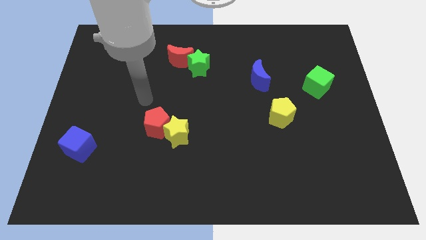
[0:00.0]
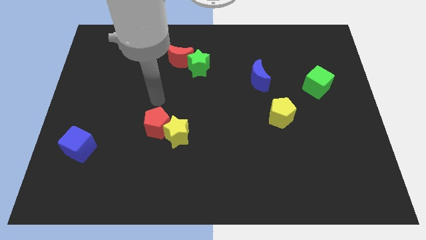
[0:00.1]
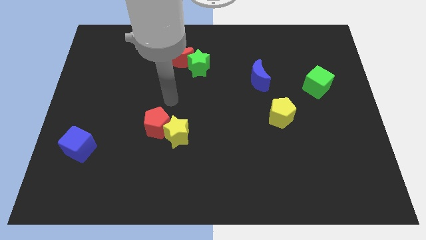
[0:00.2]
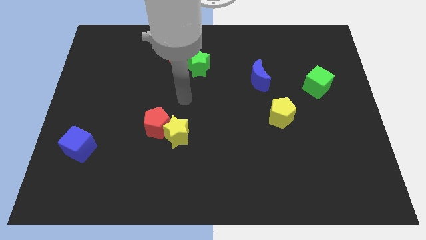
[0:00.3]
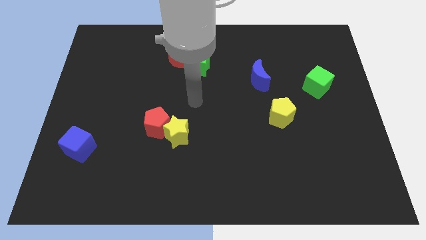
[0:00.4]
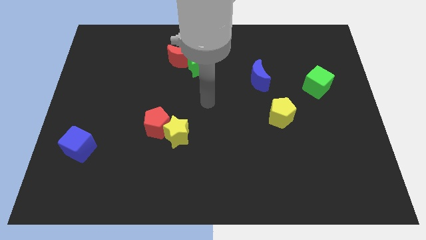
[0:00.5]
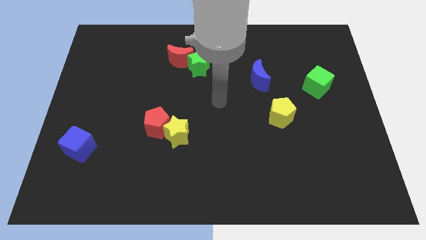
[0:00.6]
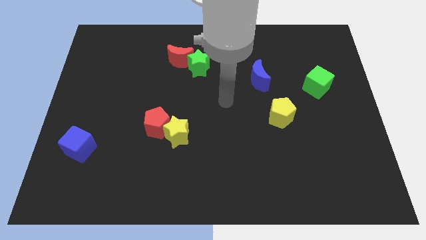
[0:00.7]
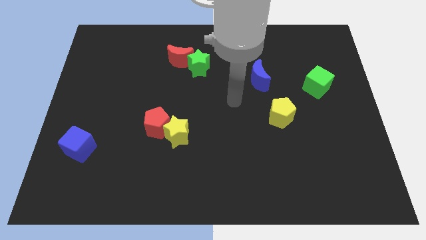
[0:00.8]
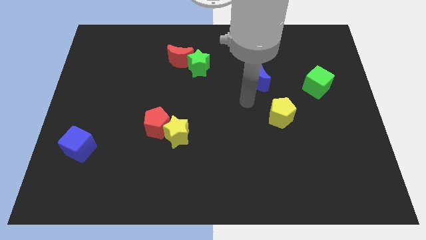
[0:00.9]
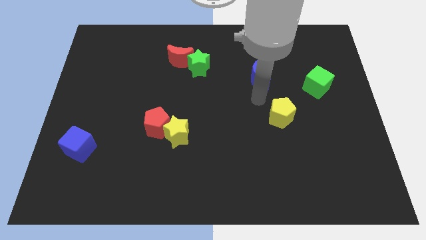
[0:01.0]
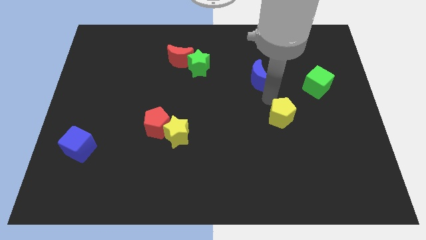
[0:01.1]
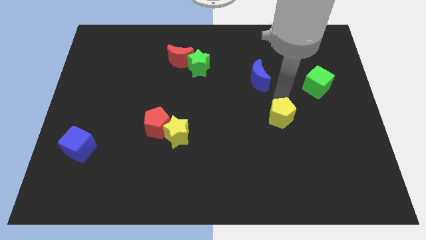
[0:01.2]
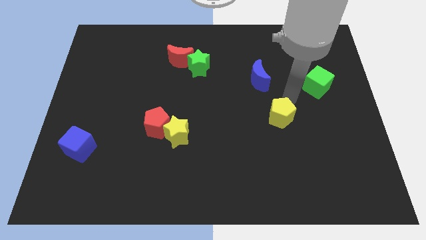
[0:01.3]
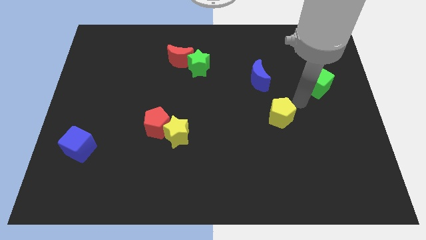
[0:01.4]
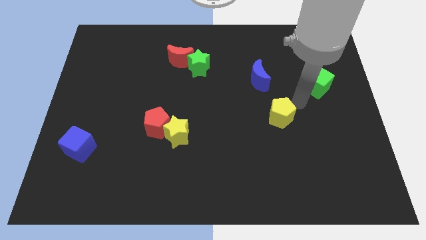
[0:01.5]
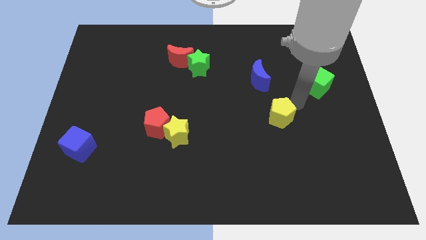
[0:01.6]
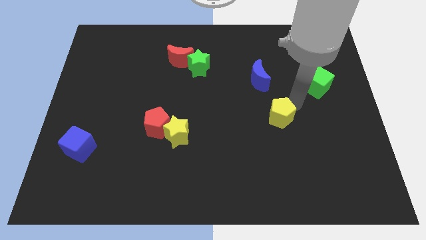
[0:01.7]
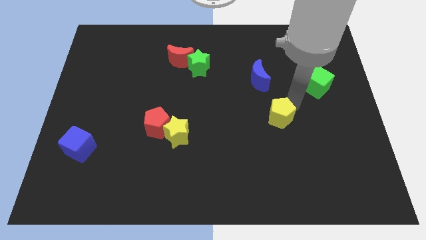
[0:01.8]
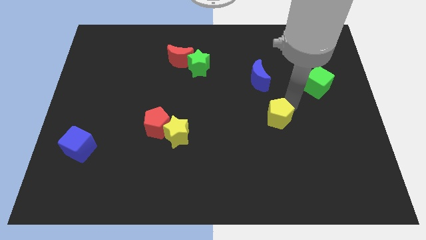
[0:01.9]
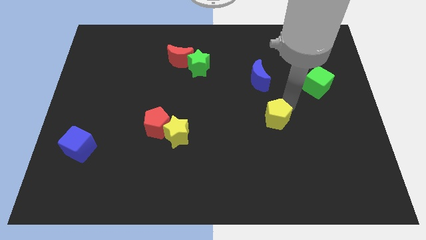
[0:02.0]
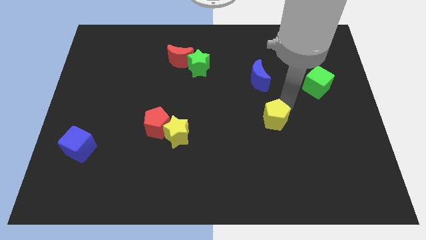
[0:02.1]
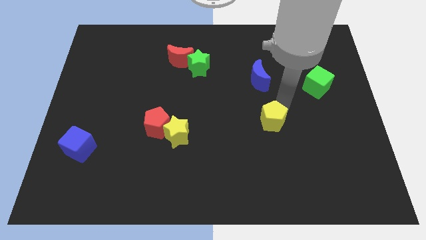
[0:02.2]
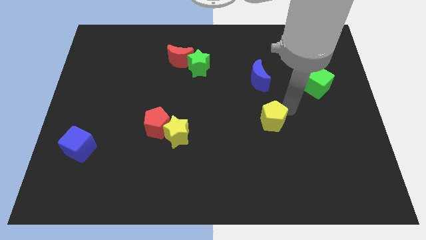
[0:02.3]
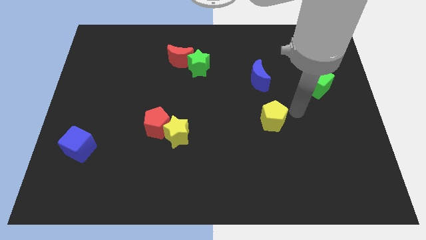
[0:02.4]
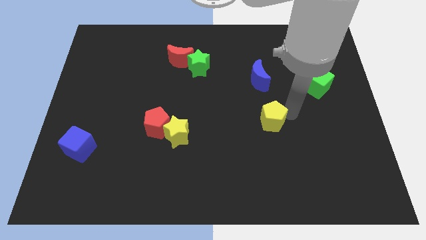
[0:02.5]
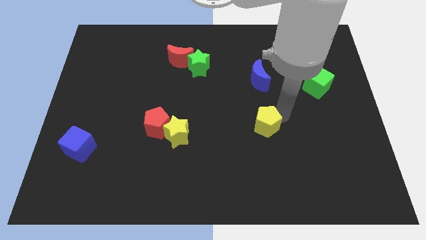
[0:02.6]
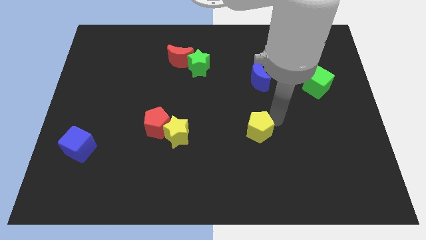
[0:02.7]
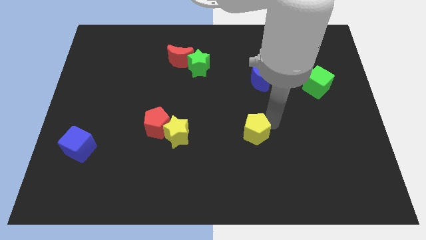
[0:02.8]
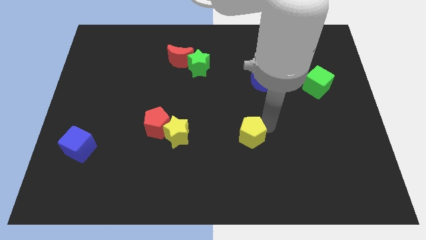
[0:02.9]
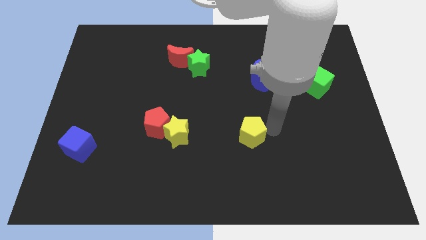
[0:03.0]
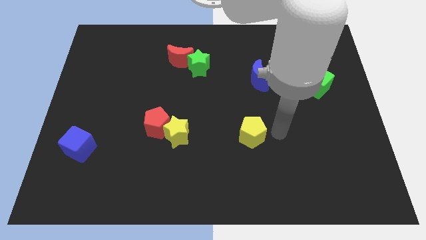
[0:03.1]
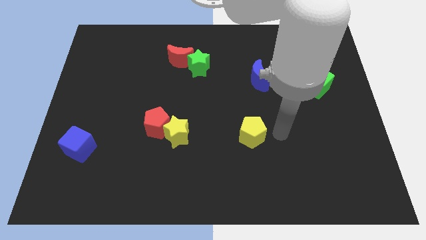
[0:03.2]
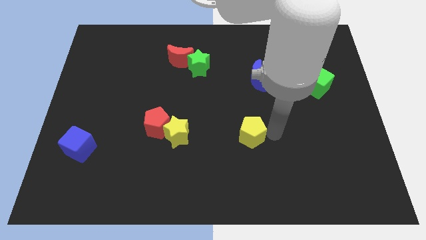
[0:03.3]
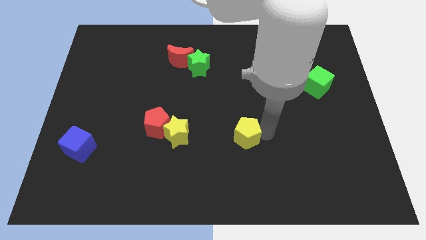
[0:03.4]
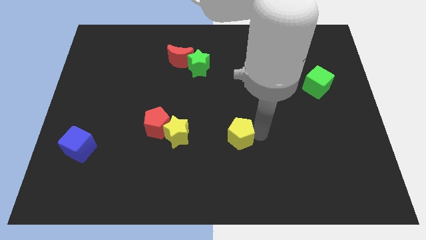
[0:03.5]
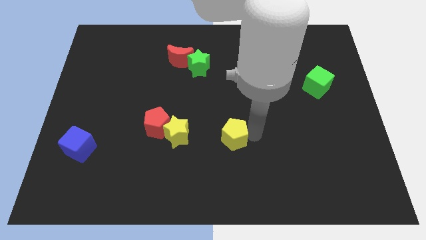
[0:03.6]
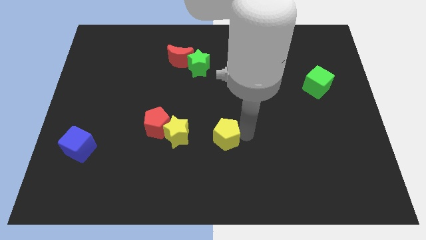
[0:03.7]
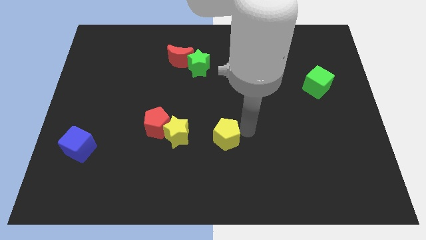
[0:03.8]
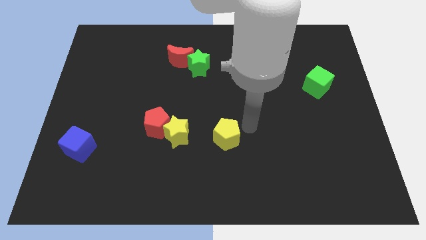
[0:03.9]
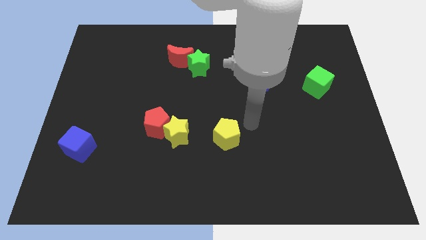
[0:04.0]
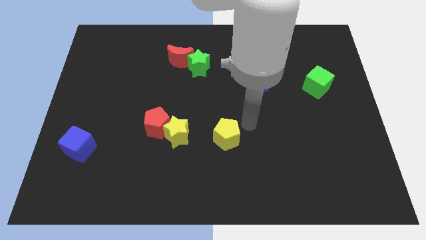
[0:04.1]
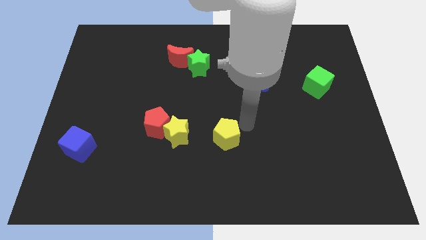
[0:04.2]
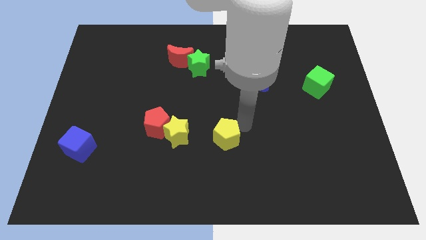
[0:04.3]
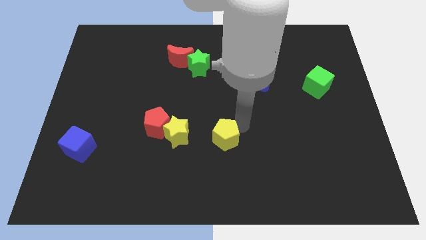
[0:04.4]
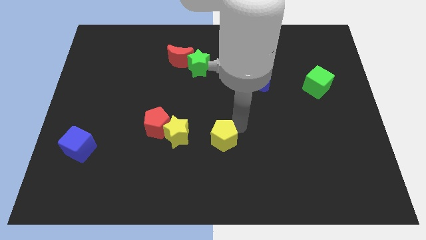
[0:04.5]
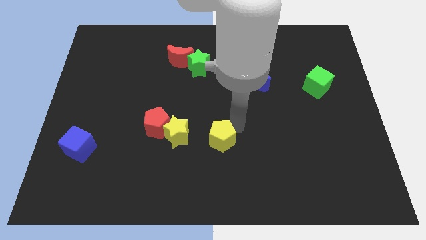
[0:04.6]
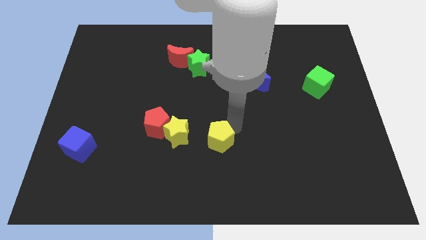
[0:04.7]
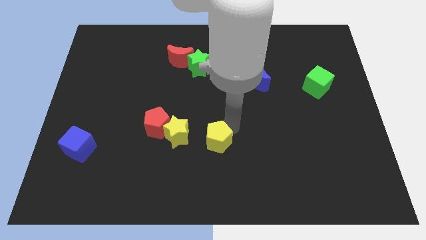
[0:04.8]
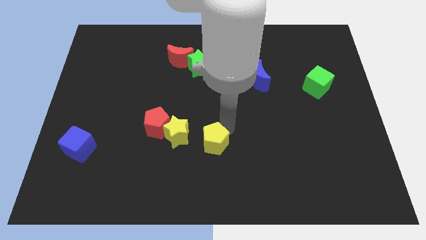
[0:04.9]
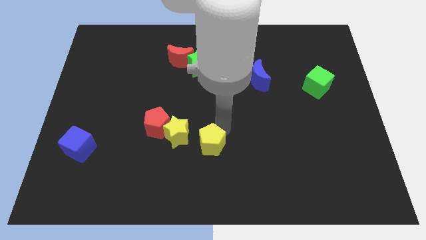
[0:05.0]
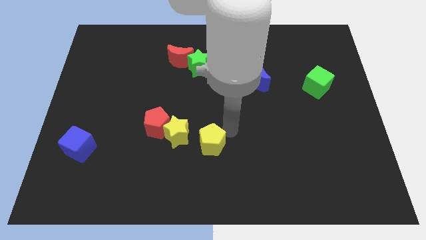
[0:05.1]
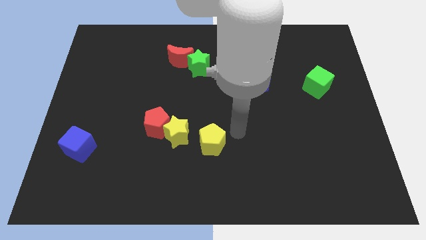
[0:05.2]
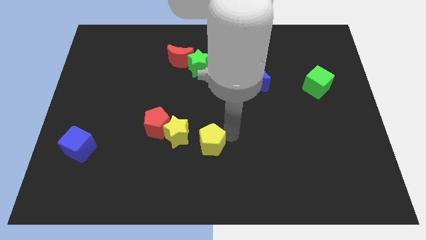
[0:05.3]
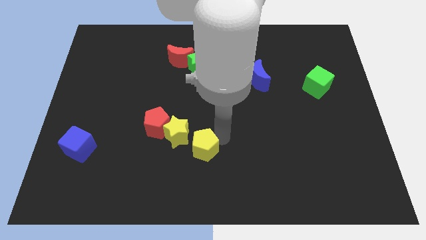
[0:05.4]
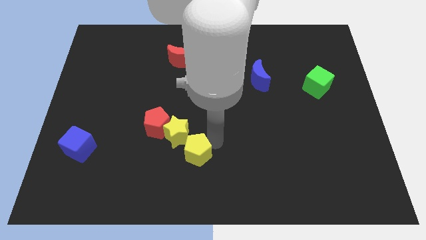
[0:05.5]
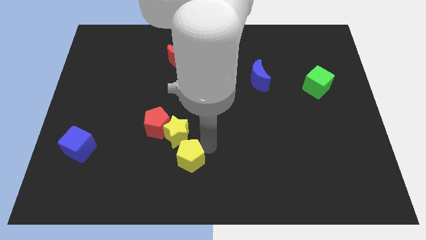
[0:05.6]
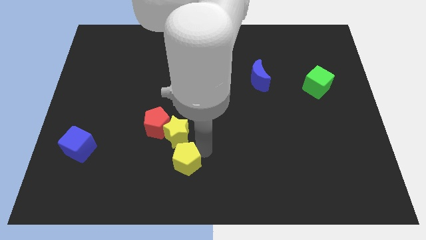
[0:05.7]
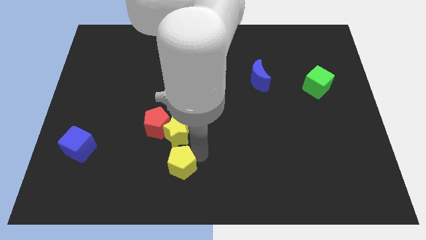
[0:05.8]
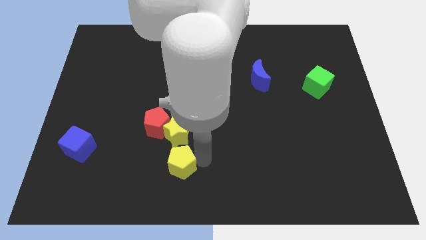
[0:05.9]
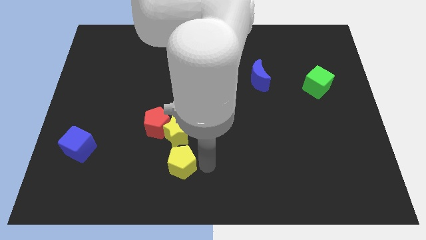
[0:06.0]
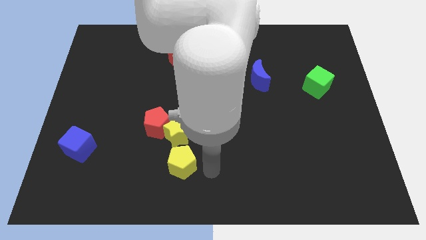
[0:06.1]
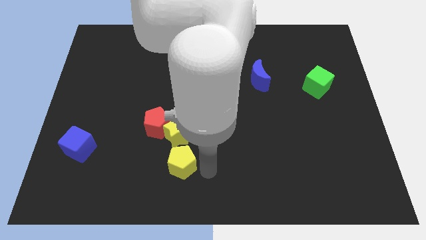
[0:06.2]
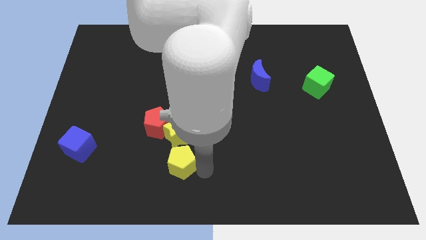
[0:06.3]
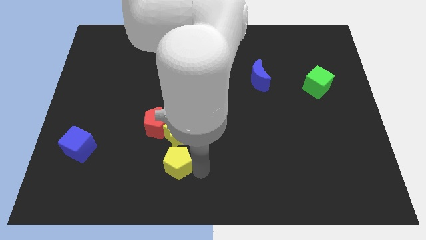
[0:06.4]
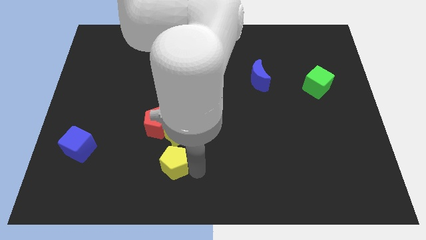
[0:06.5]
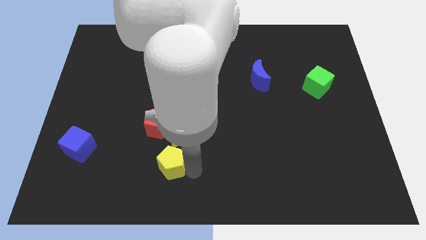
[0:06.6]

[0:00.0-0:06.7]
push the yellow pentagon diagonally down and to the left of the yellow star

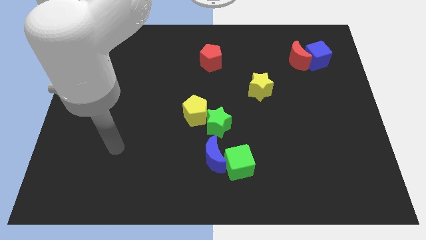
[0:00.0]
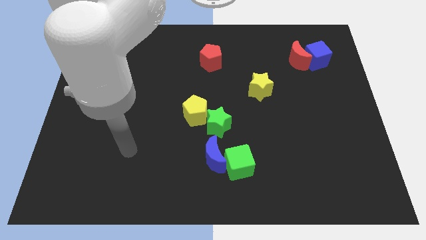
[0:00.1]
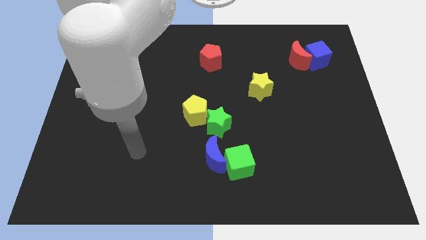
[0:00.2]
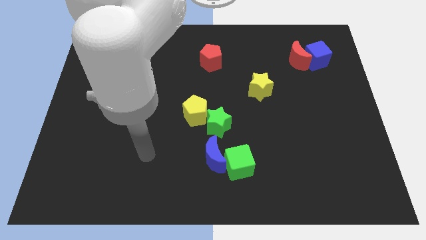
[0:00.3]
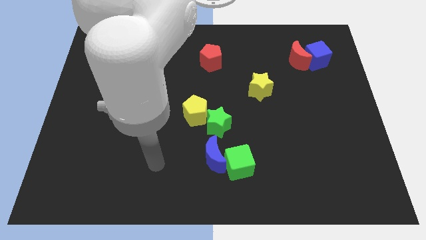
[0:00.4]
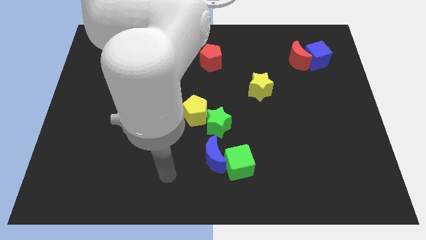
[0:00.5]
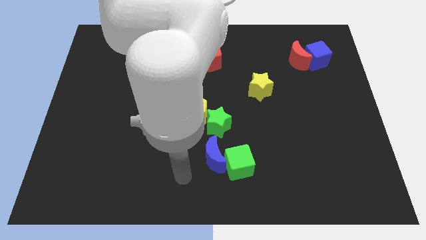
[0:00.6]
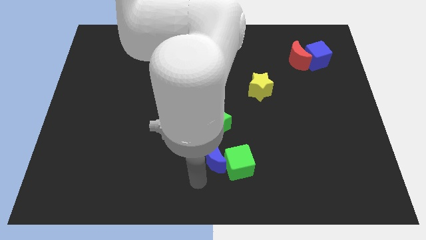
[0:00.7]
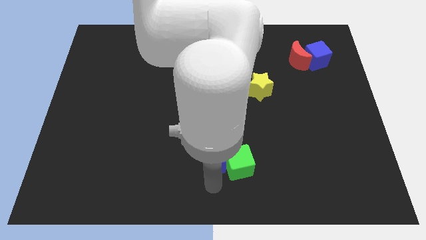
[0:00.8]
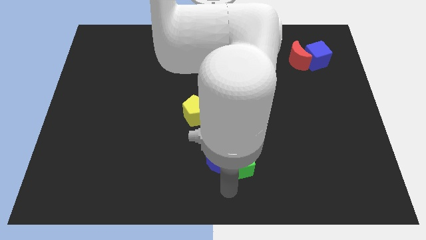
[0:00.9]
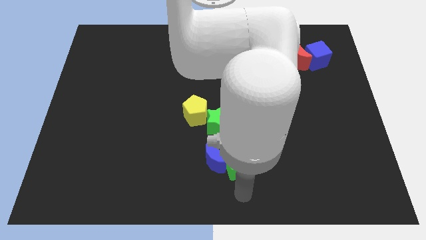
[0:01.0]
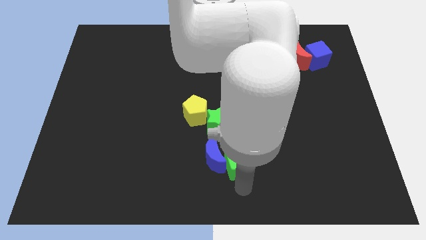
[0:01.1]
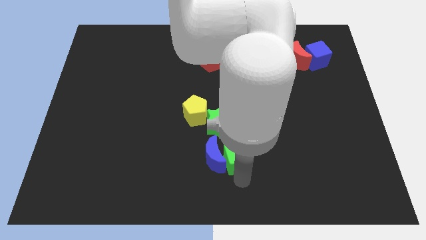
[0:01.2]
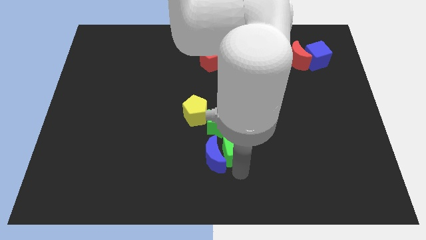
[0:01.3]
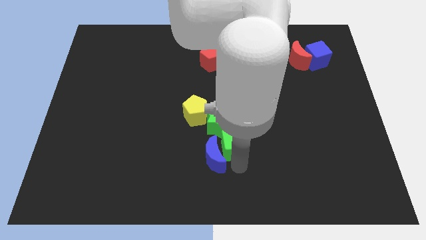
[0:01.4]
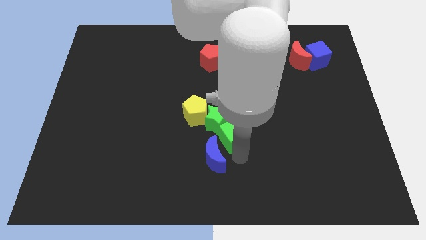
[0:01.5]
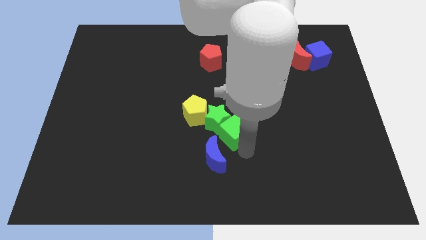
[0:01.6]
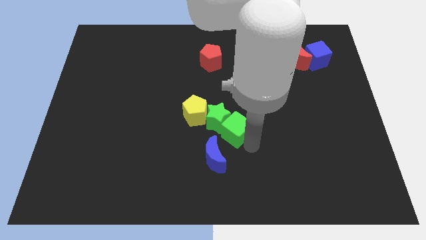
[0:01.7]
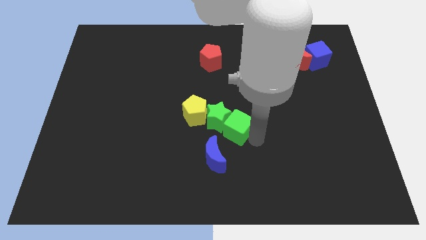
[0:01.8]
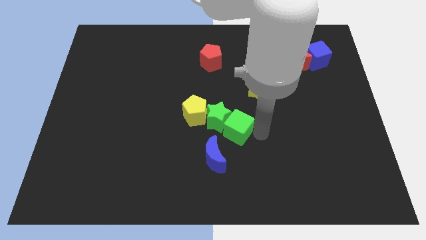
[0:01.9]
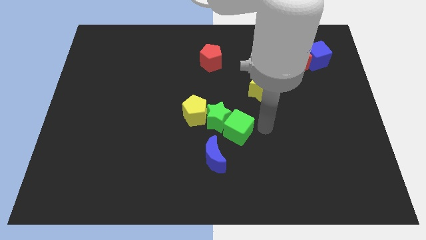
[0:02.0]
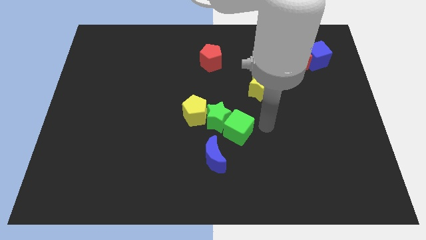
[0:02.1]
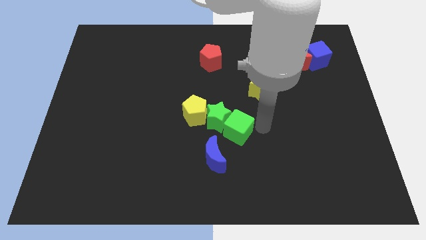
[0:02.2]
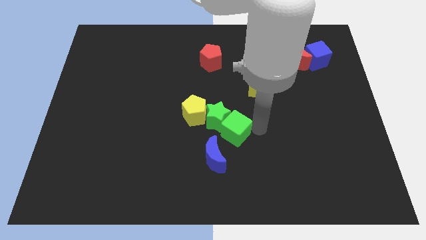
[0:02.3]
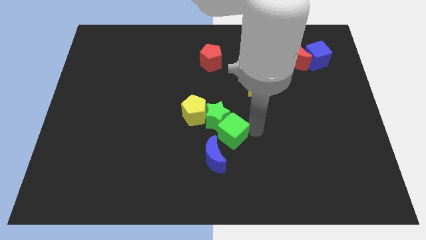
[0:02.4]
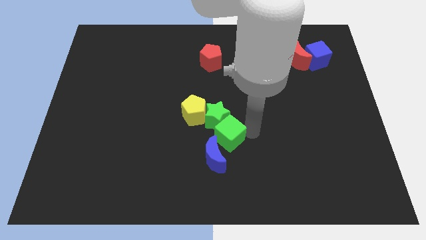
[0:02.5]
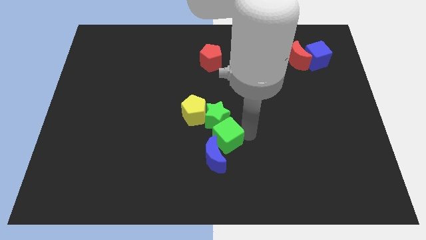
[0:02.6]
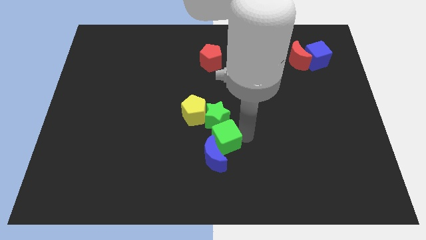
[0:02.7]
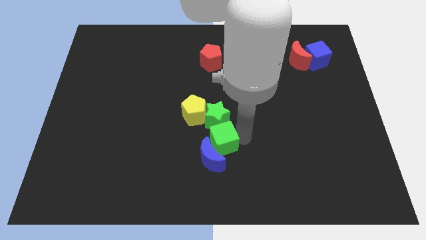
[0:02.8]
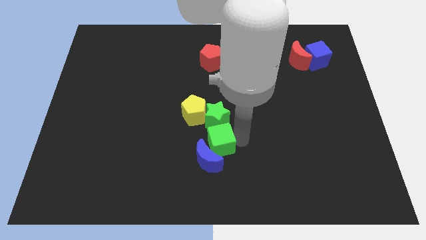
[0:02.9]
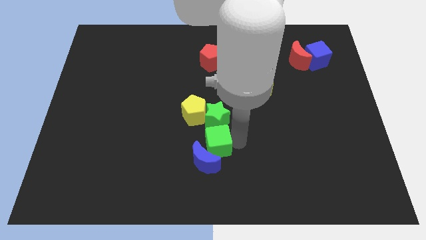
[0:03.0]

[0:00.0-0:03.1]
put the green cube diagonally down and to the left of the green star
